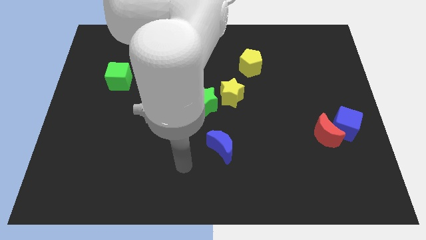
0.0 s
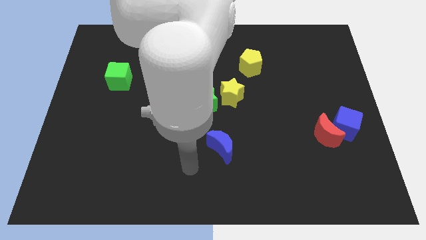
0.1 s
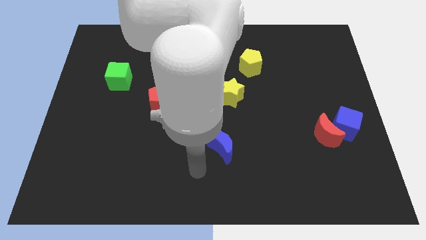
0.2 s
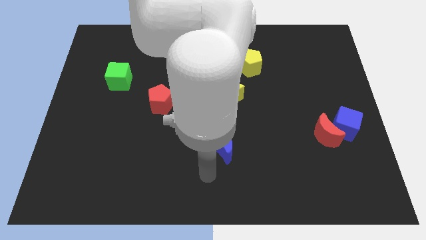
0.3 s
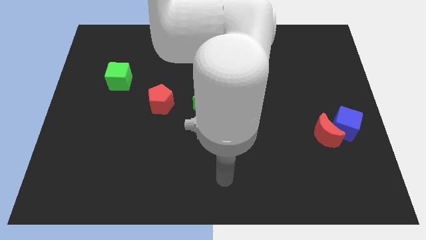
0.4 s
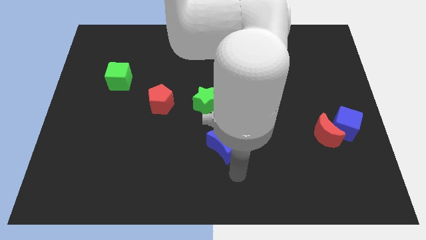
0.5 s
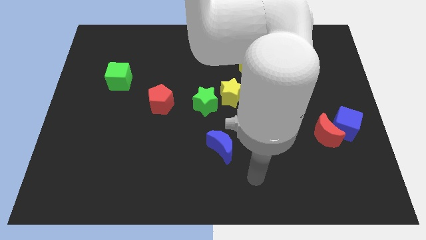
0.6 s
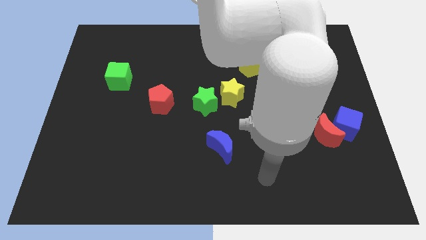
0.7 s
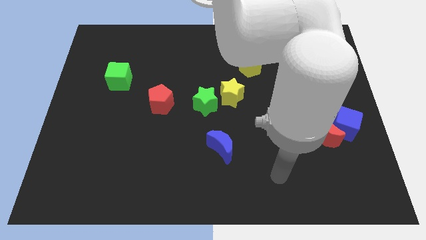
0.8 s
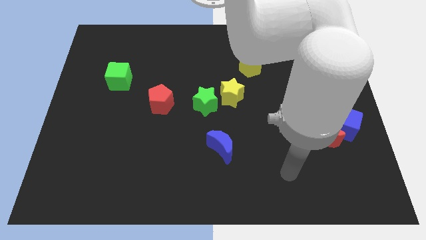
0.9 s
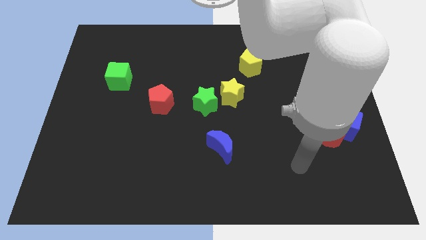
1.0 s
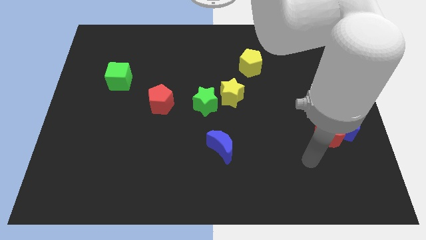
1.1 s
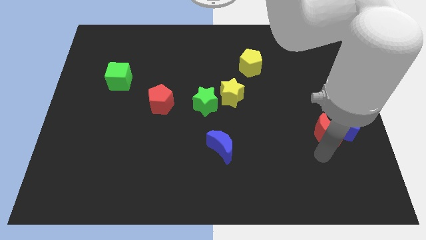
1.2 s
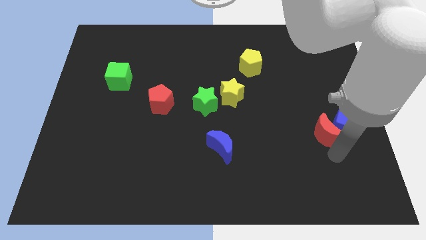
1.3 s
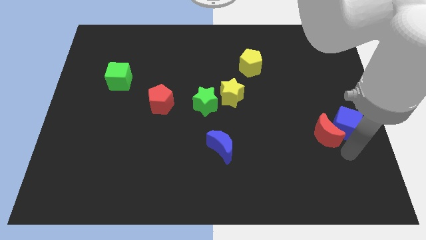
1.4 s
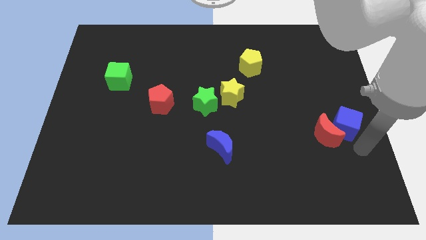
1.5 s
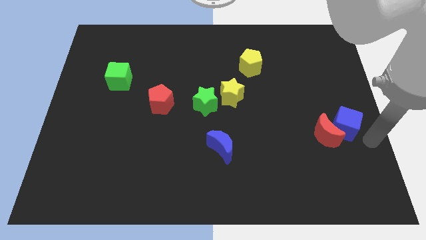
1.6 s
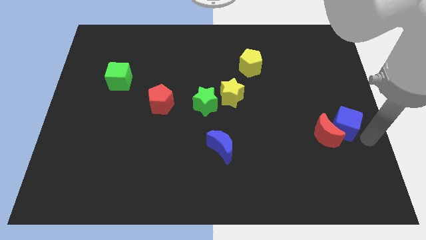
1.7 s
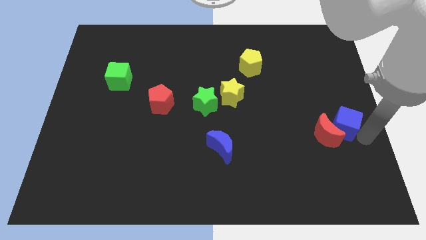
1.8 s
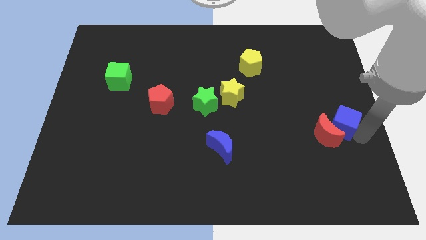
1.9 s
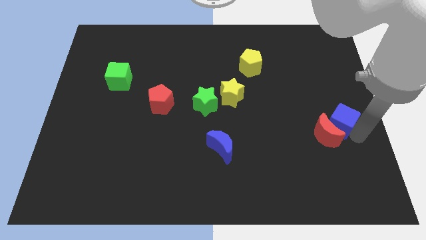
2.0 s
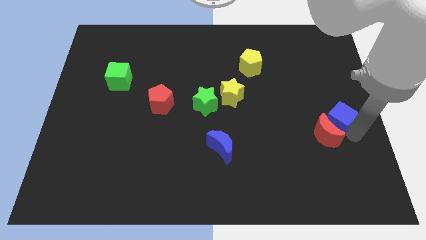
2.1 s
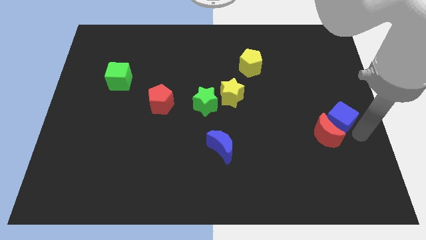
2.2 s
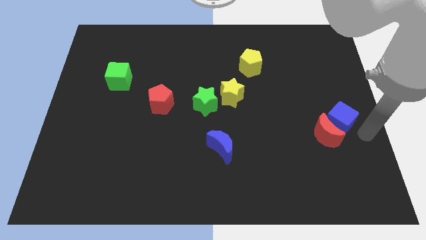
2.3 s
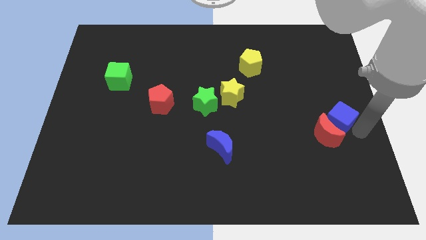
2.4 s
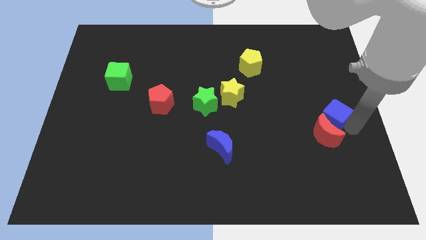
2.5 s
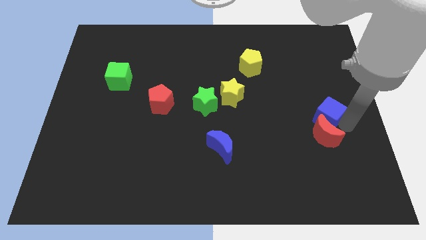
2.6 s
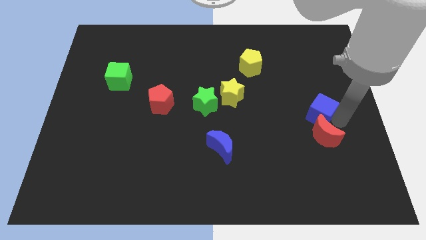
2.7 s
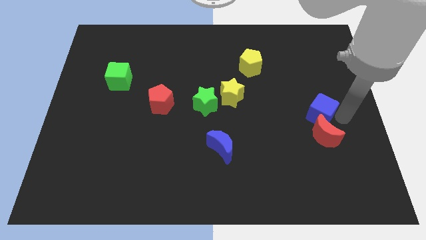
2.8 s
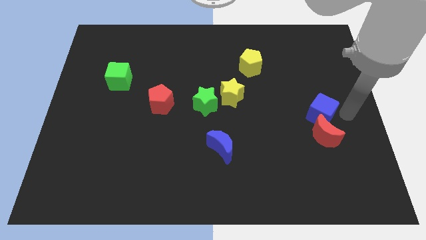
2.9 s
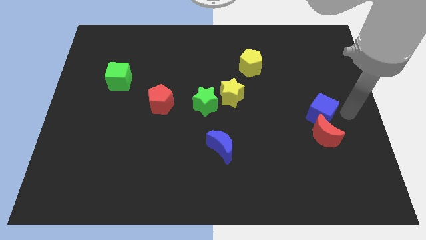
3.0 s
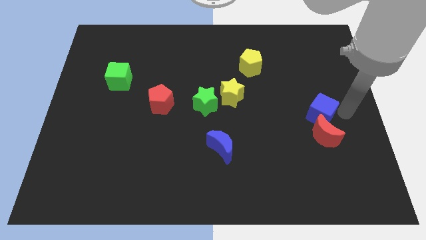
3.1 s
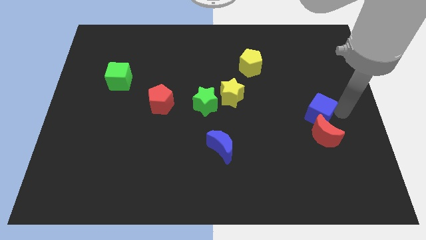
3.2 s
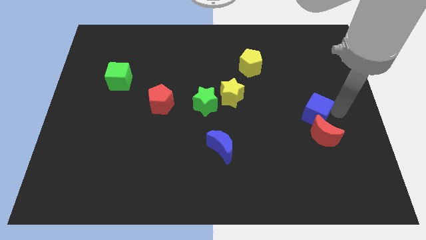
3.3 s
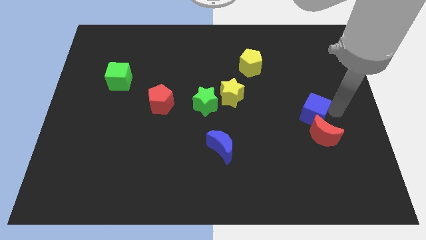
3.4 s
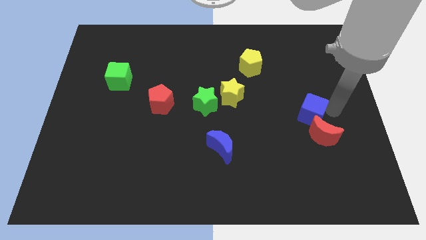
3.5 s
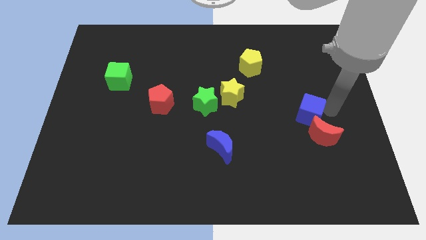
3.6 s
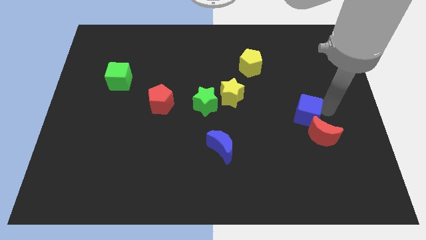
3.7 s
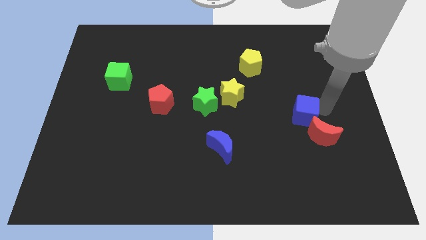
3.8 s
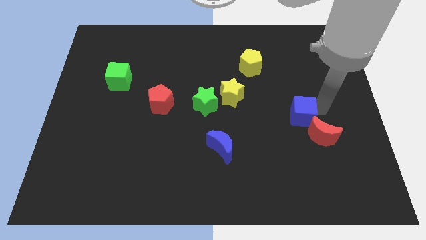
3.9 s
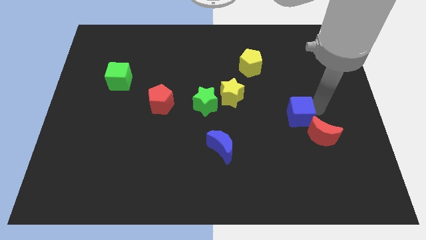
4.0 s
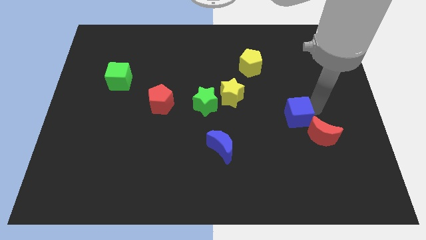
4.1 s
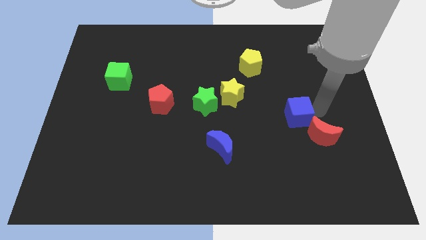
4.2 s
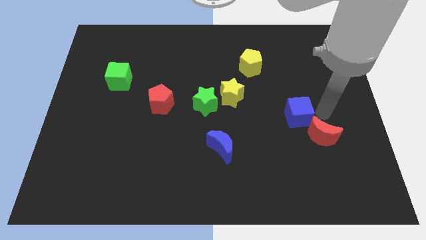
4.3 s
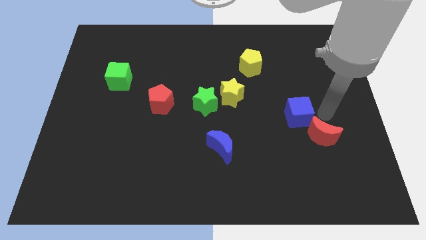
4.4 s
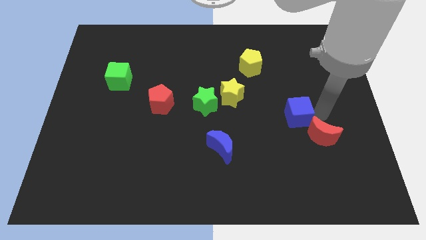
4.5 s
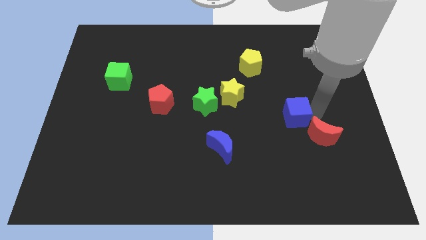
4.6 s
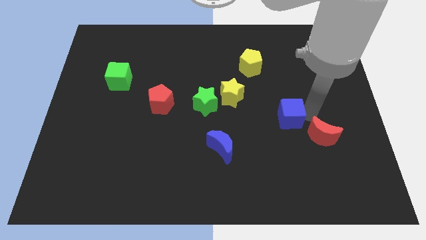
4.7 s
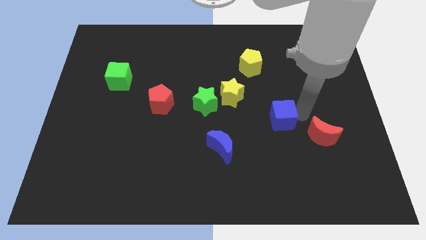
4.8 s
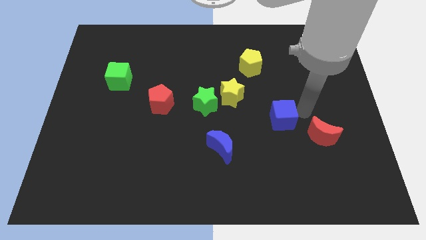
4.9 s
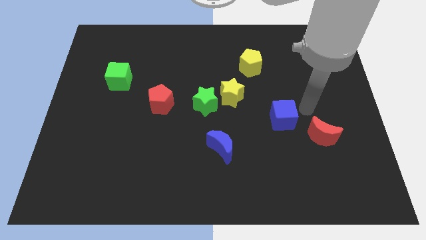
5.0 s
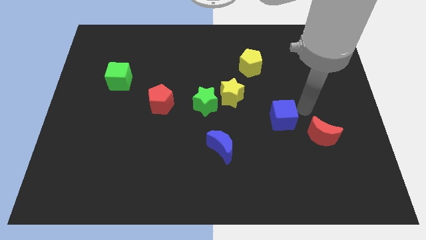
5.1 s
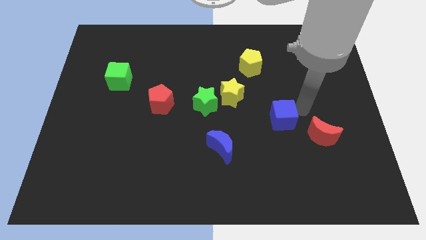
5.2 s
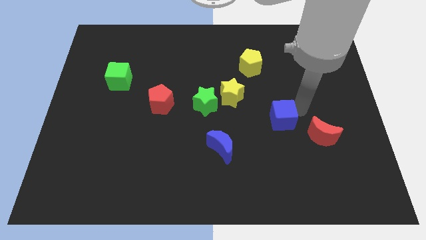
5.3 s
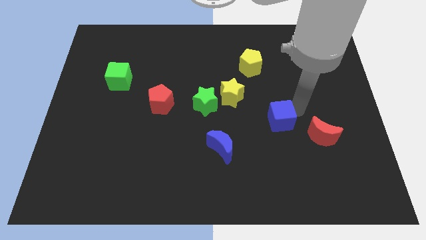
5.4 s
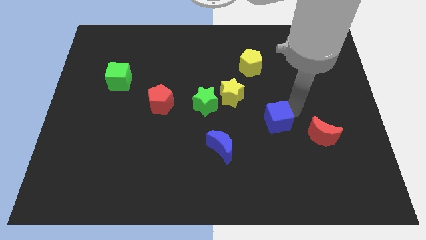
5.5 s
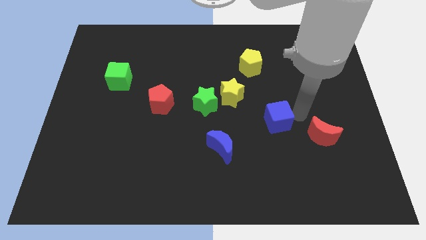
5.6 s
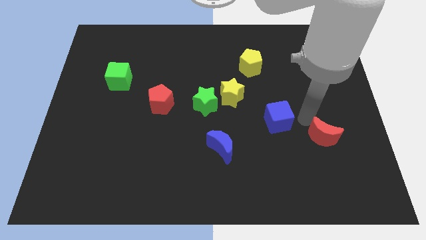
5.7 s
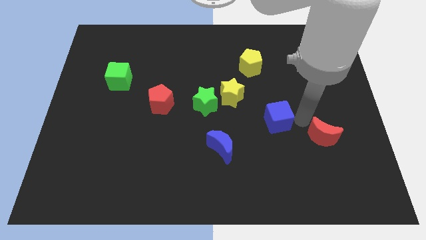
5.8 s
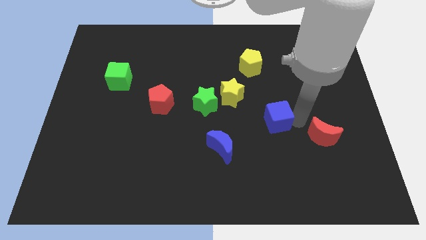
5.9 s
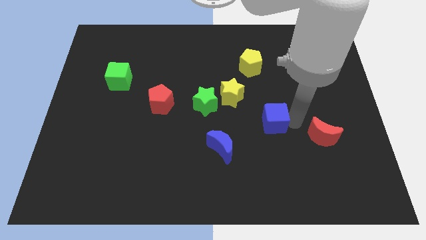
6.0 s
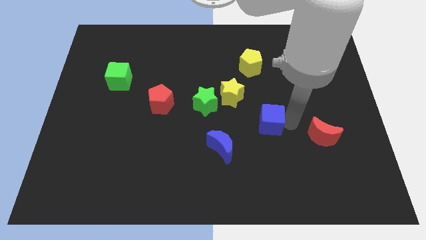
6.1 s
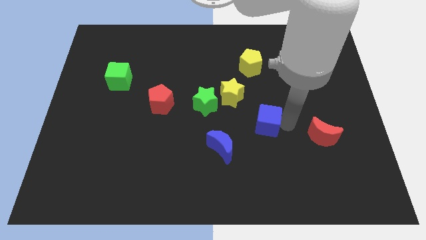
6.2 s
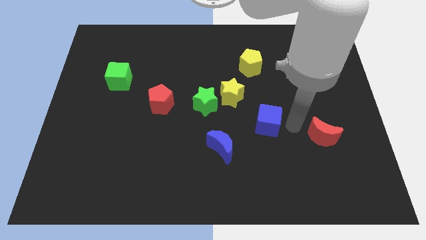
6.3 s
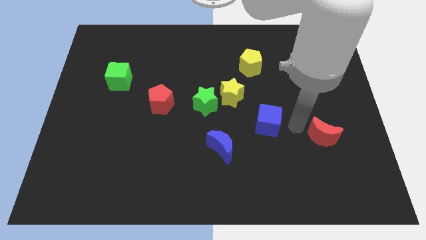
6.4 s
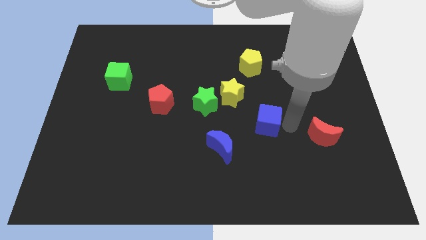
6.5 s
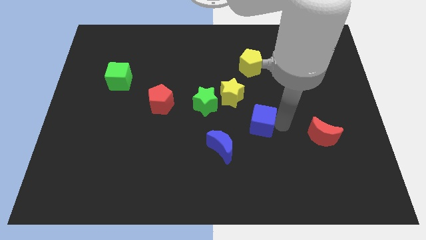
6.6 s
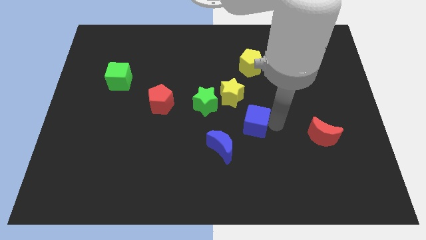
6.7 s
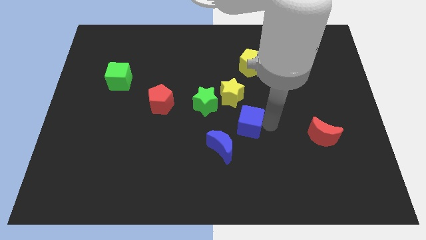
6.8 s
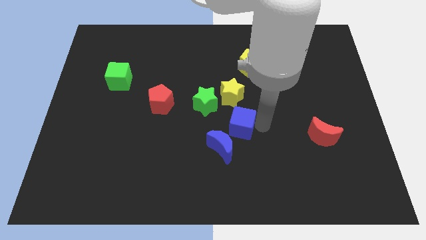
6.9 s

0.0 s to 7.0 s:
slide the blue cube to the top of the blue moon

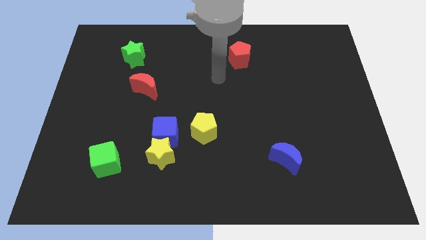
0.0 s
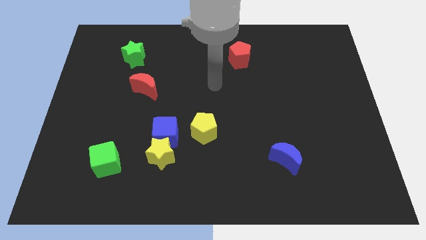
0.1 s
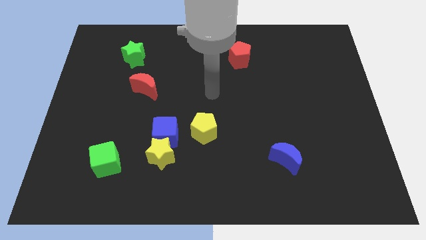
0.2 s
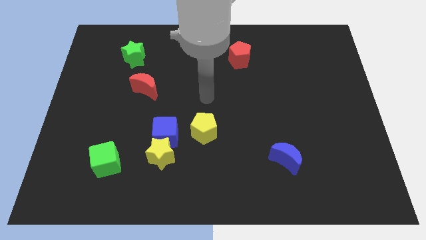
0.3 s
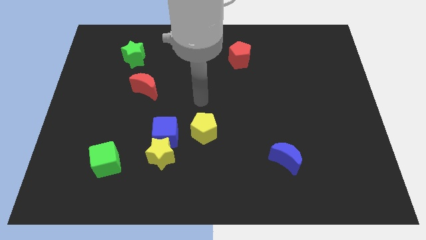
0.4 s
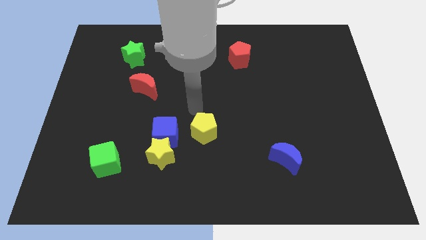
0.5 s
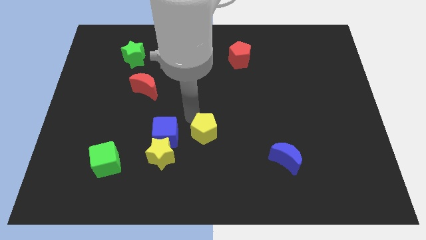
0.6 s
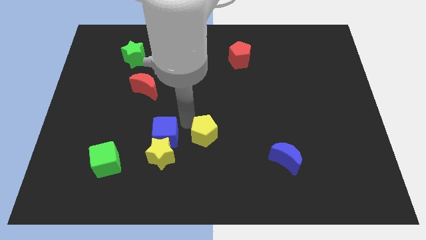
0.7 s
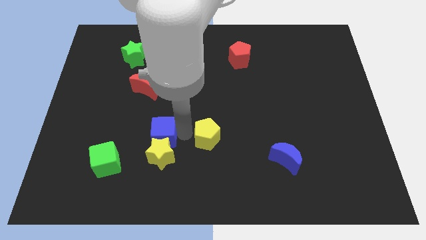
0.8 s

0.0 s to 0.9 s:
slide the yellow star left of the yellow pentagon
